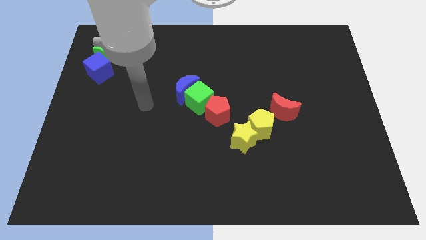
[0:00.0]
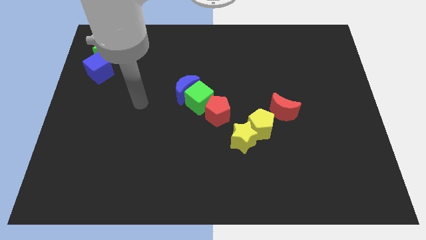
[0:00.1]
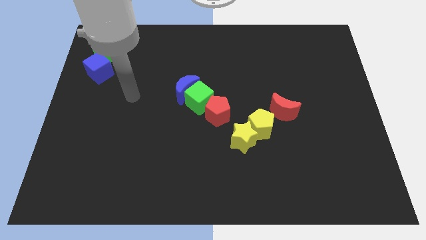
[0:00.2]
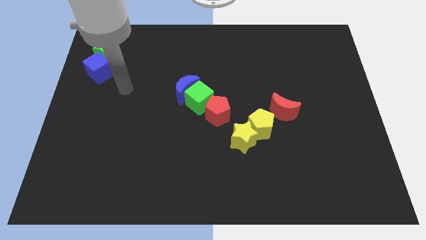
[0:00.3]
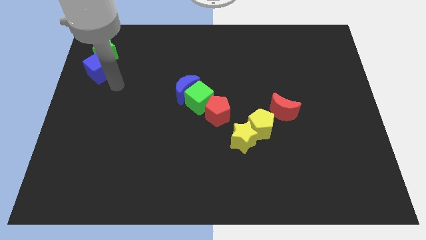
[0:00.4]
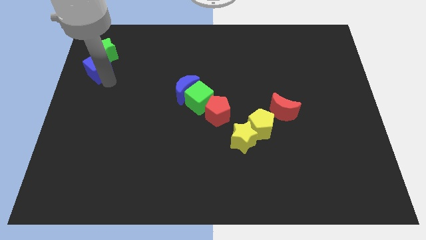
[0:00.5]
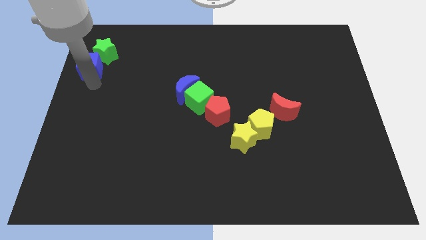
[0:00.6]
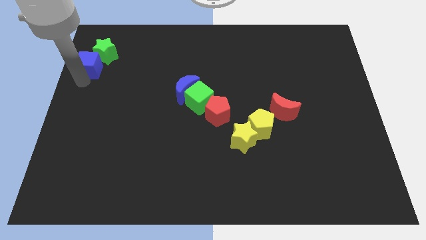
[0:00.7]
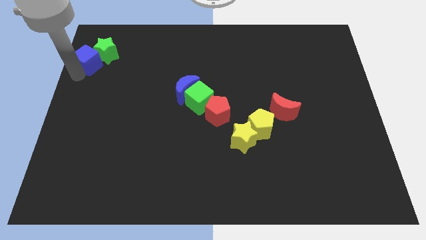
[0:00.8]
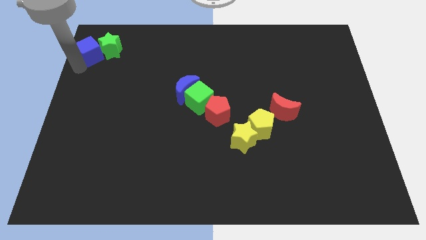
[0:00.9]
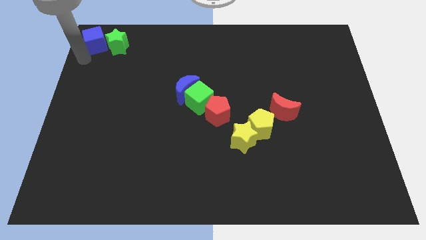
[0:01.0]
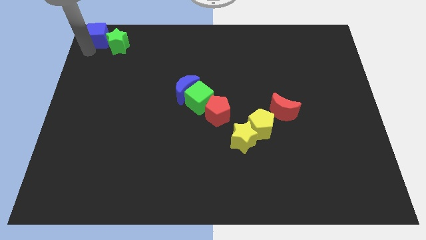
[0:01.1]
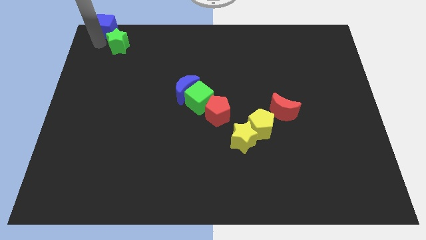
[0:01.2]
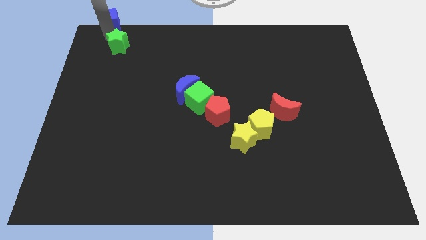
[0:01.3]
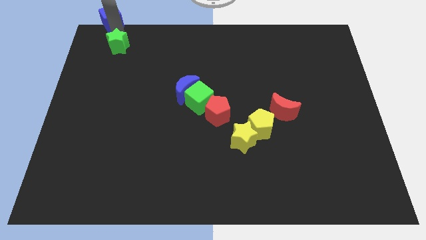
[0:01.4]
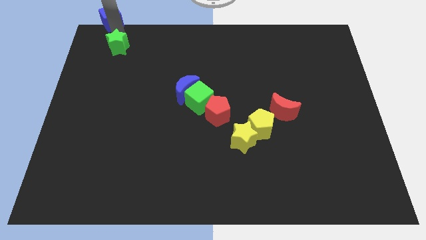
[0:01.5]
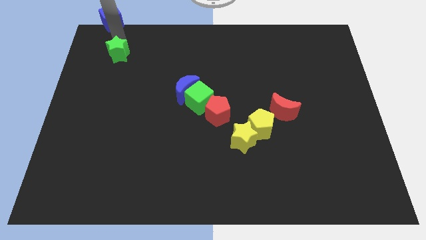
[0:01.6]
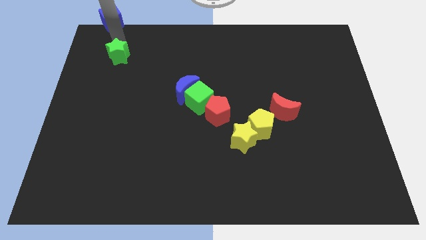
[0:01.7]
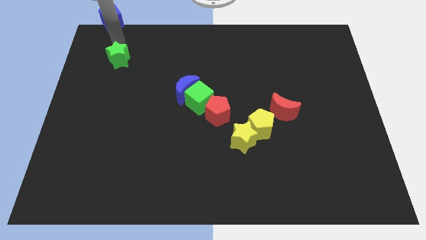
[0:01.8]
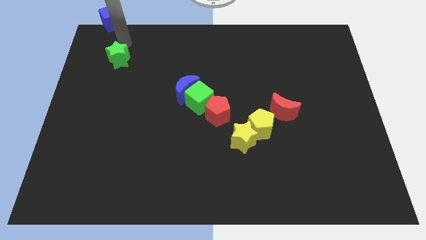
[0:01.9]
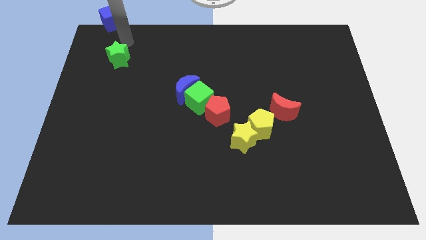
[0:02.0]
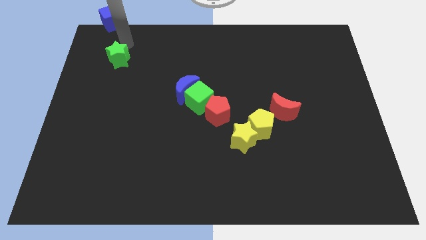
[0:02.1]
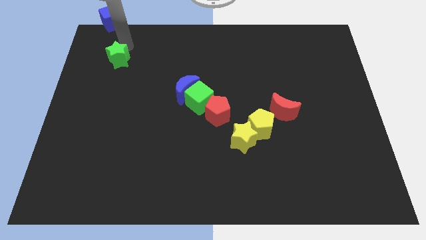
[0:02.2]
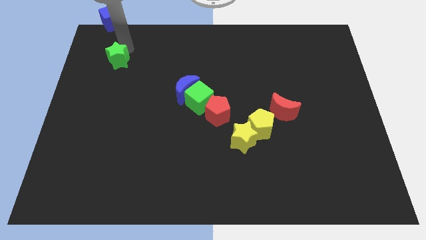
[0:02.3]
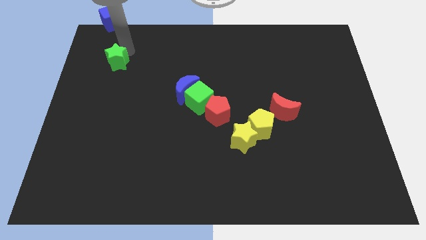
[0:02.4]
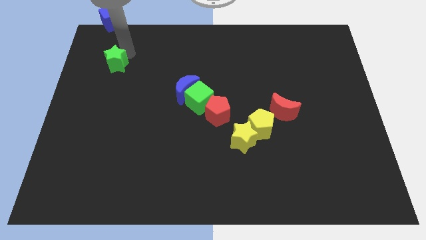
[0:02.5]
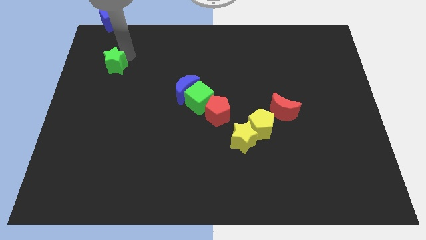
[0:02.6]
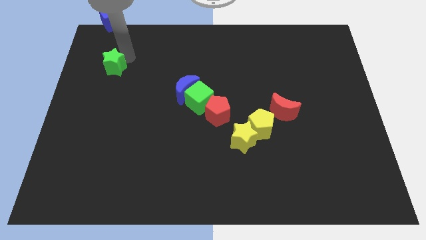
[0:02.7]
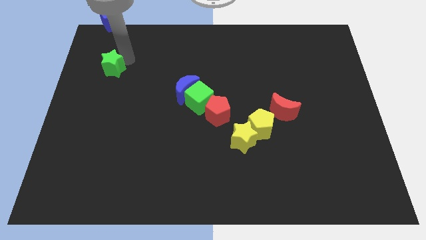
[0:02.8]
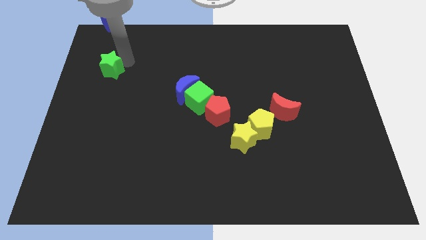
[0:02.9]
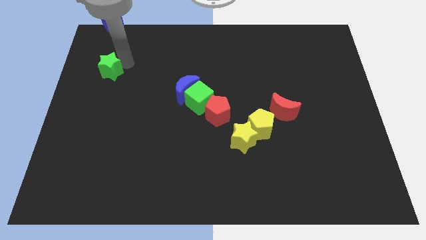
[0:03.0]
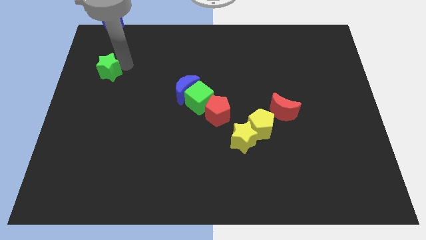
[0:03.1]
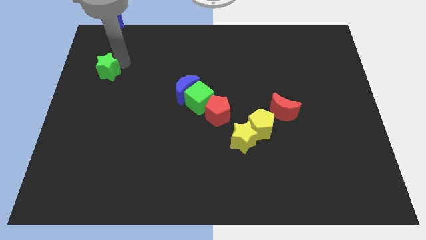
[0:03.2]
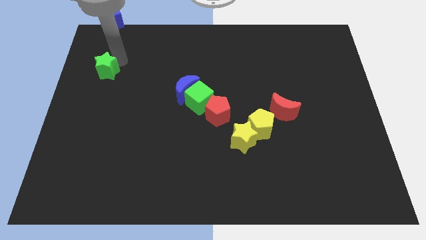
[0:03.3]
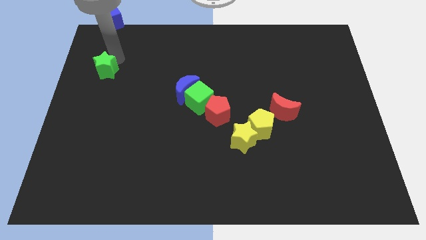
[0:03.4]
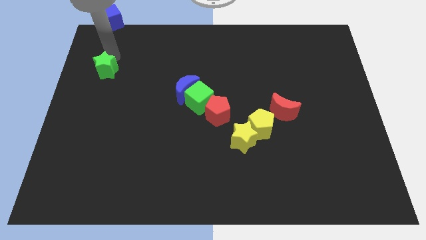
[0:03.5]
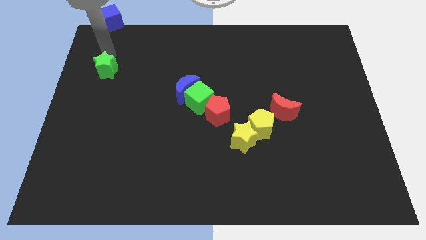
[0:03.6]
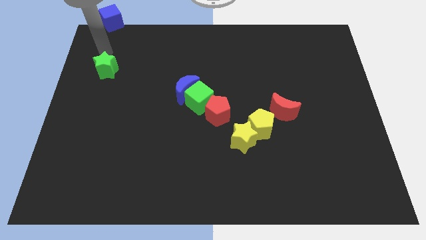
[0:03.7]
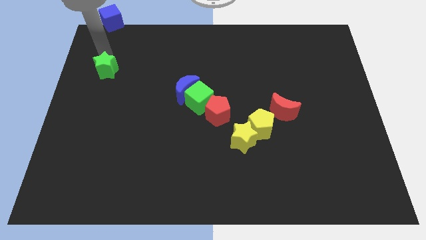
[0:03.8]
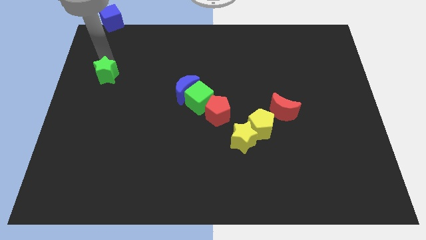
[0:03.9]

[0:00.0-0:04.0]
move the green star slightly down

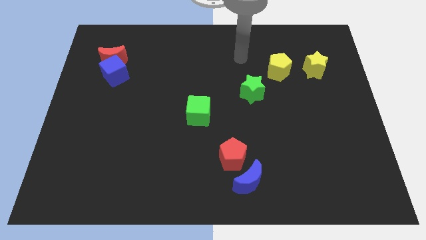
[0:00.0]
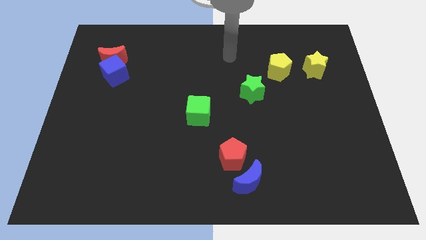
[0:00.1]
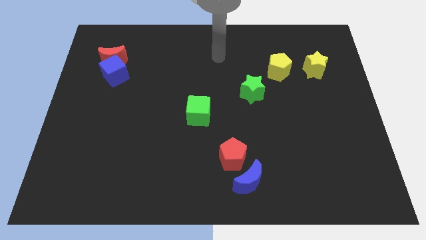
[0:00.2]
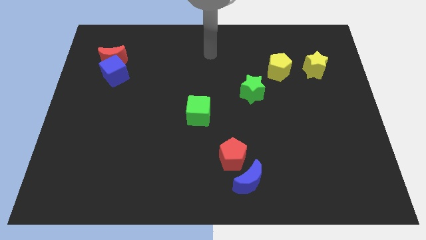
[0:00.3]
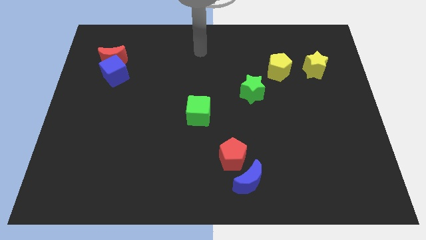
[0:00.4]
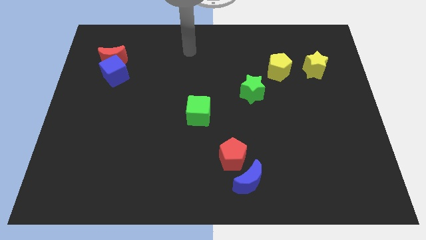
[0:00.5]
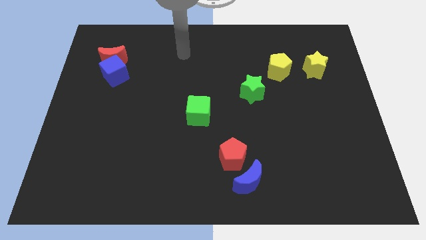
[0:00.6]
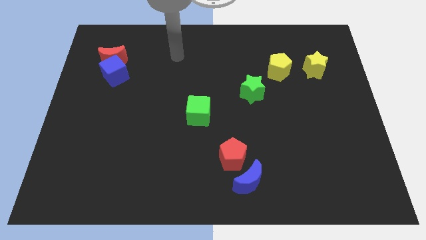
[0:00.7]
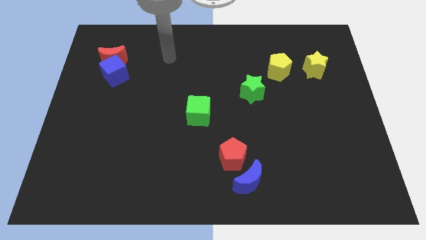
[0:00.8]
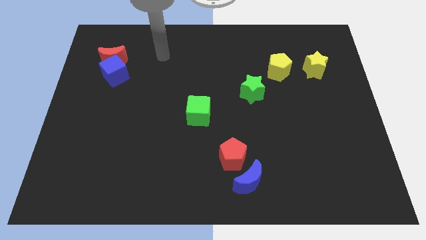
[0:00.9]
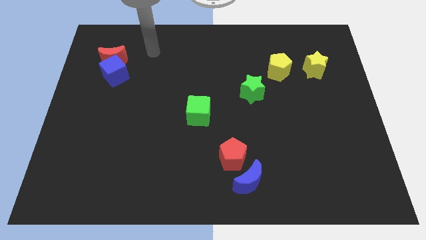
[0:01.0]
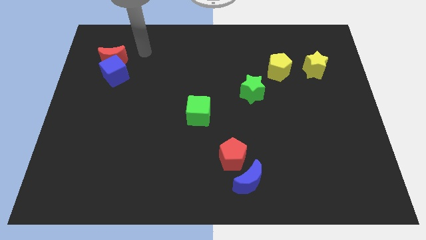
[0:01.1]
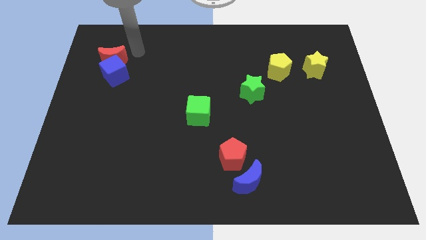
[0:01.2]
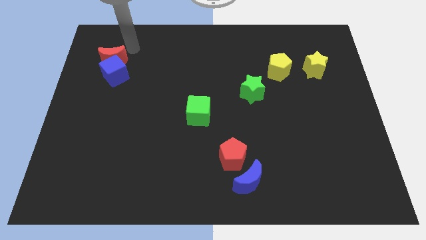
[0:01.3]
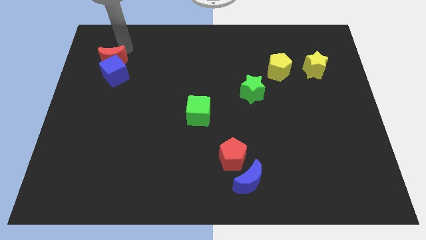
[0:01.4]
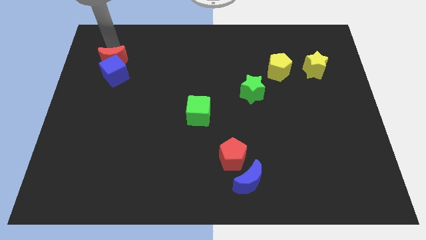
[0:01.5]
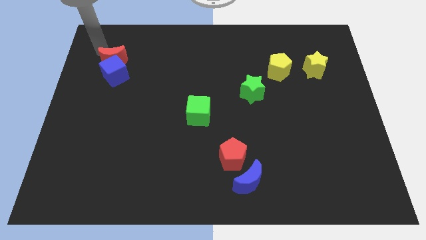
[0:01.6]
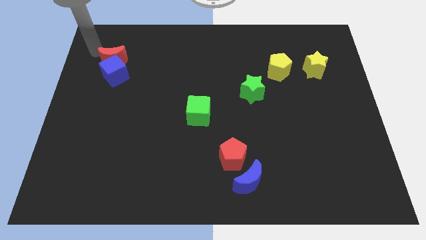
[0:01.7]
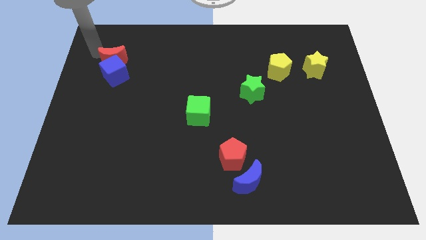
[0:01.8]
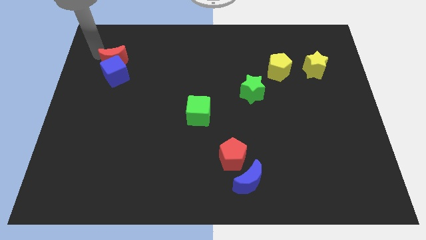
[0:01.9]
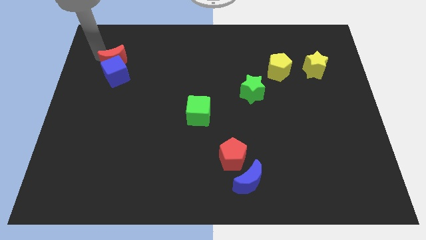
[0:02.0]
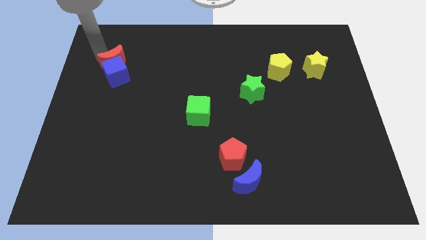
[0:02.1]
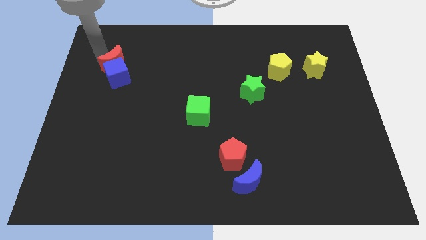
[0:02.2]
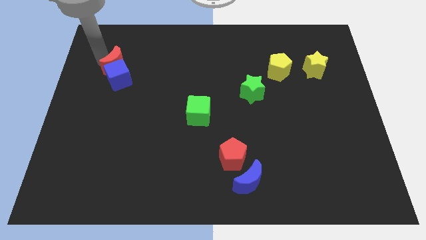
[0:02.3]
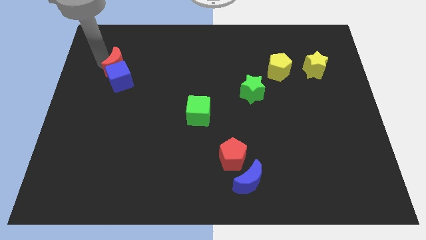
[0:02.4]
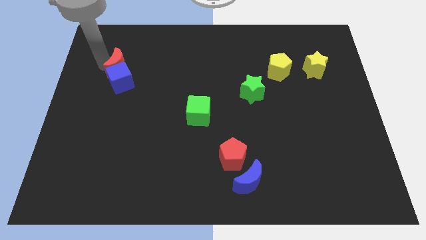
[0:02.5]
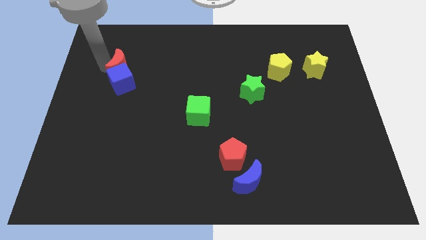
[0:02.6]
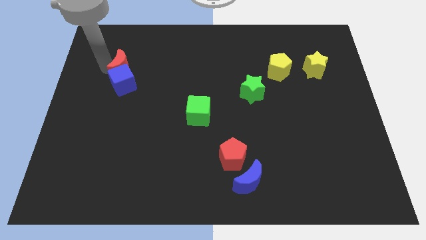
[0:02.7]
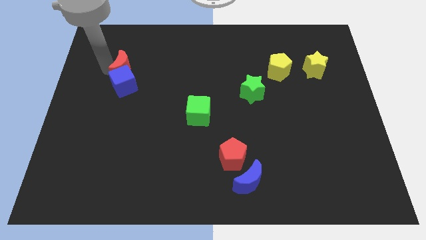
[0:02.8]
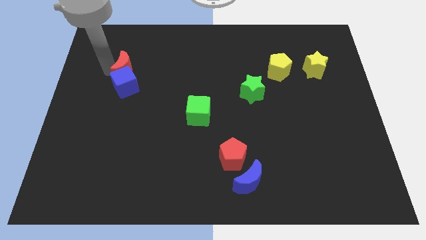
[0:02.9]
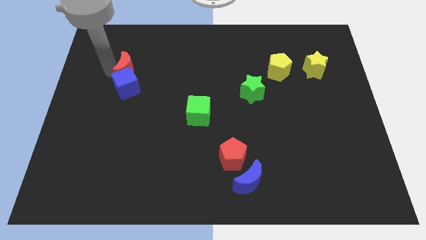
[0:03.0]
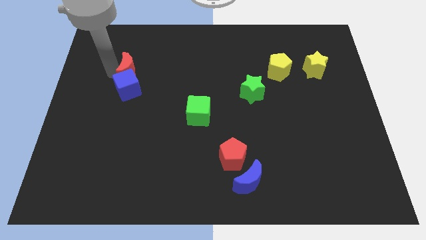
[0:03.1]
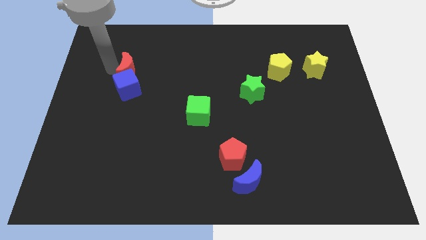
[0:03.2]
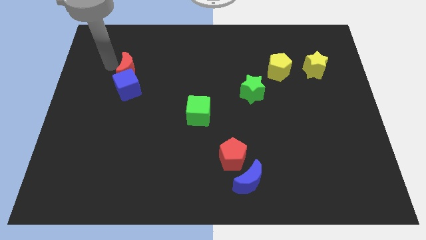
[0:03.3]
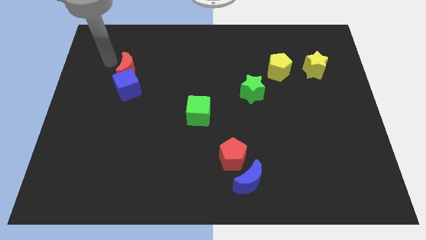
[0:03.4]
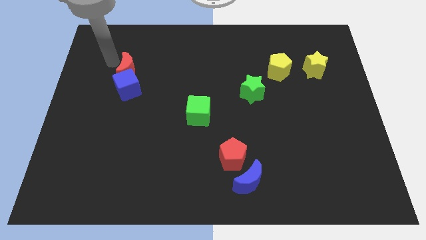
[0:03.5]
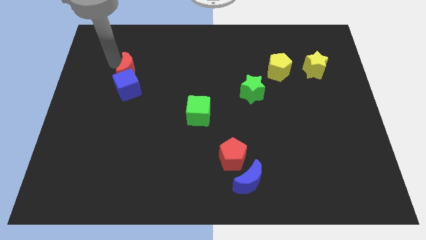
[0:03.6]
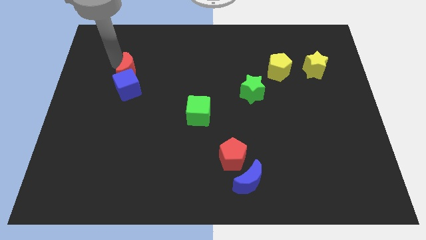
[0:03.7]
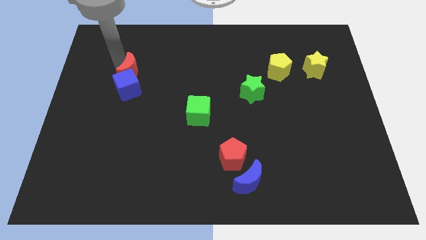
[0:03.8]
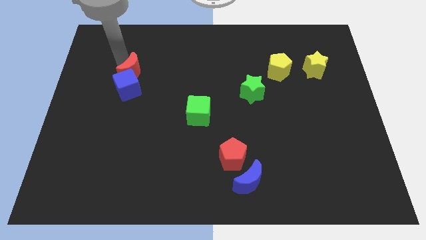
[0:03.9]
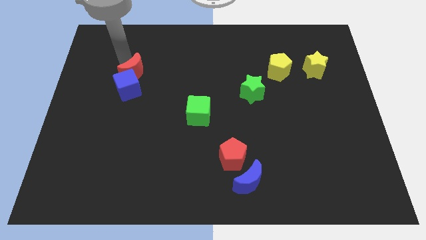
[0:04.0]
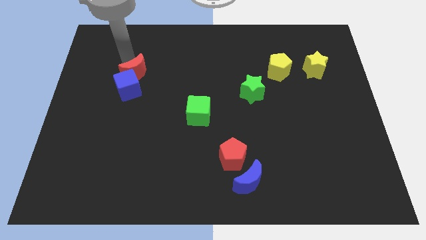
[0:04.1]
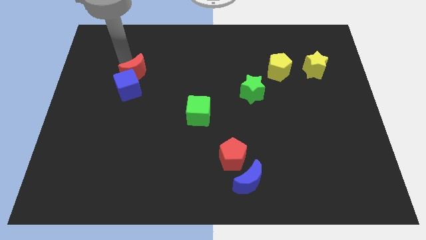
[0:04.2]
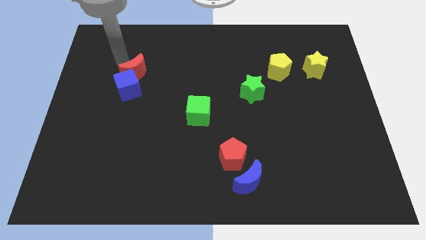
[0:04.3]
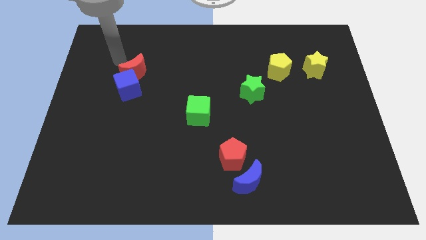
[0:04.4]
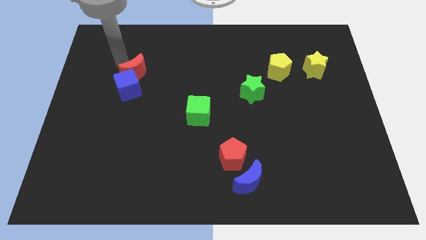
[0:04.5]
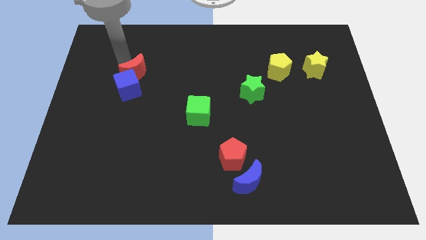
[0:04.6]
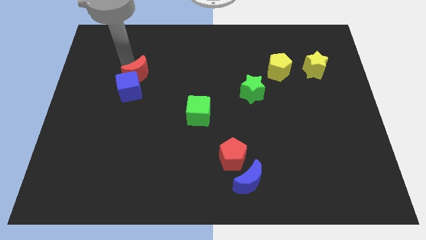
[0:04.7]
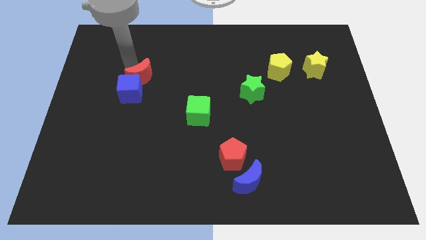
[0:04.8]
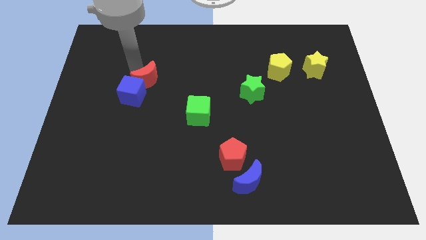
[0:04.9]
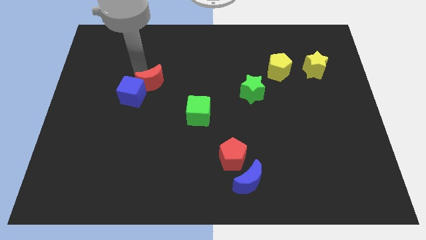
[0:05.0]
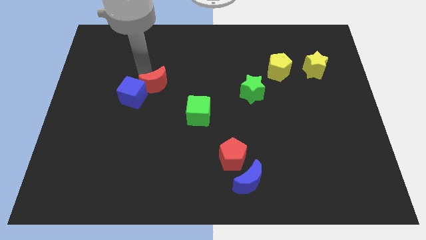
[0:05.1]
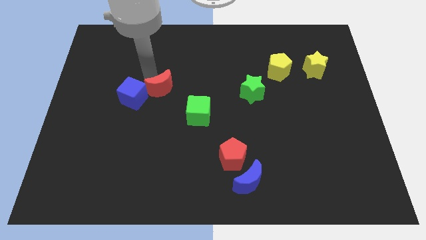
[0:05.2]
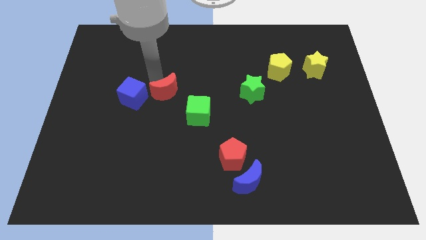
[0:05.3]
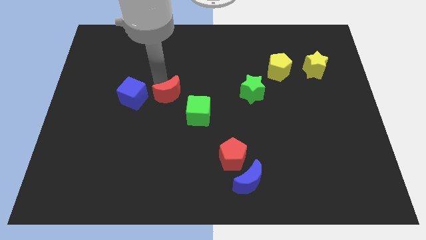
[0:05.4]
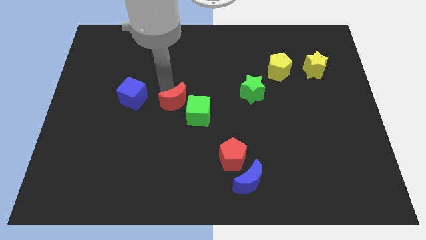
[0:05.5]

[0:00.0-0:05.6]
push the red moon downwards and then right
